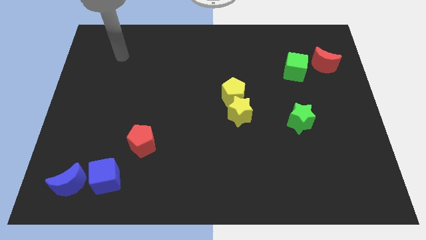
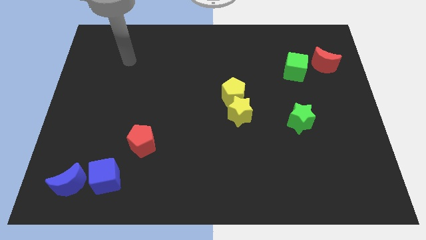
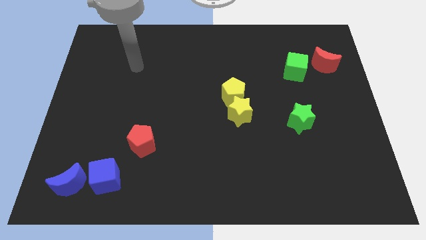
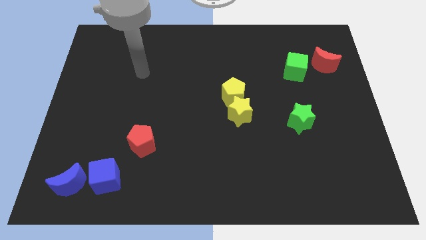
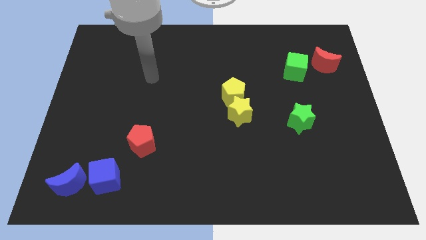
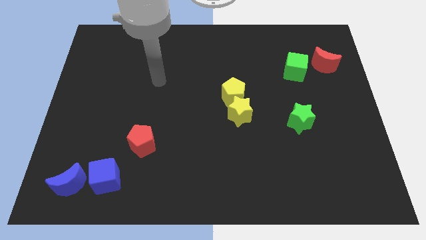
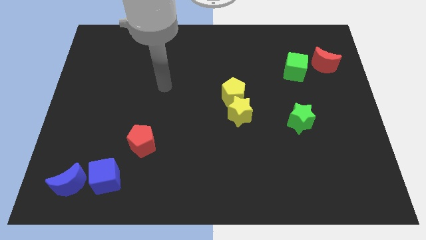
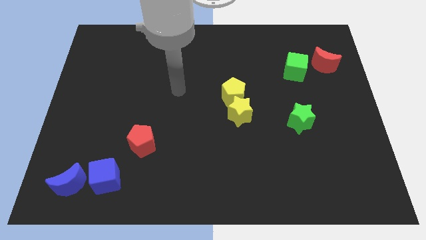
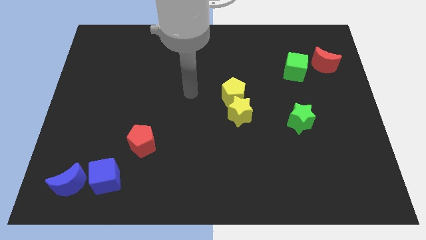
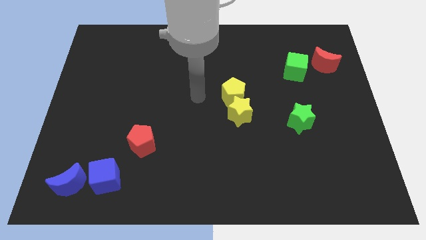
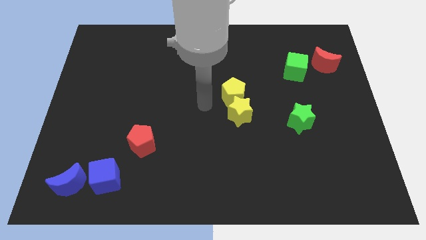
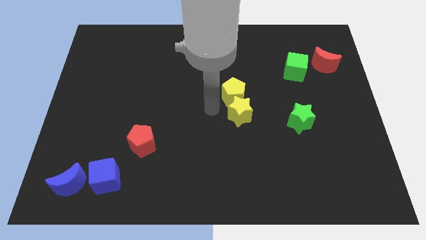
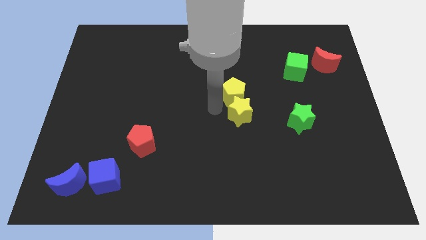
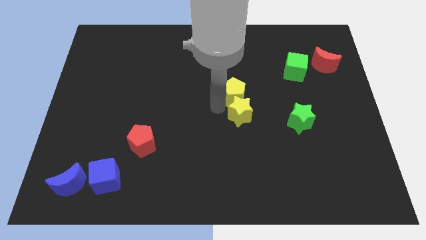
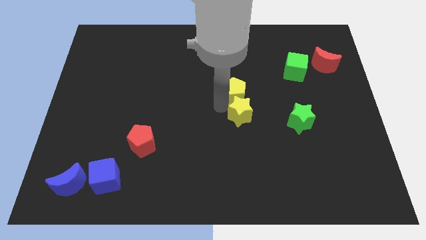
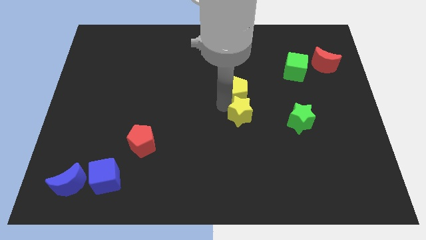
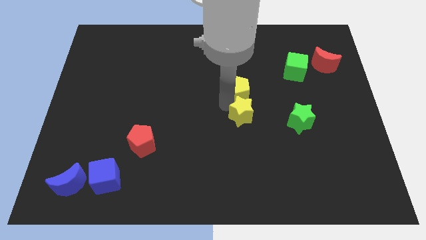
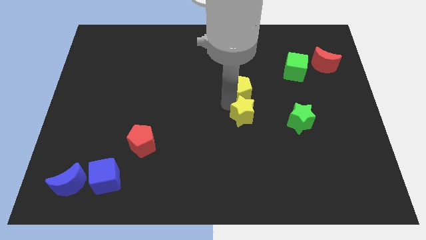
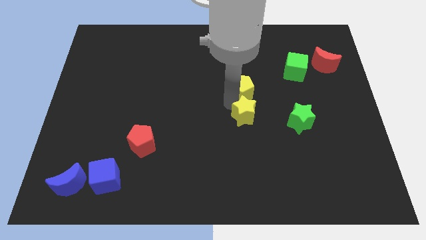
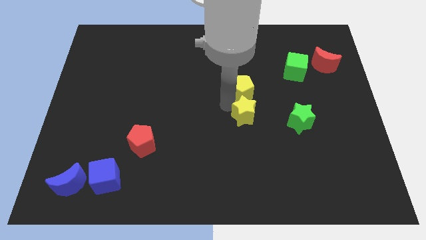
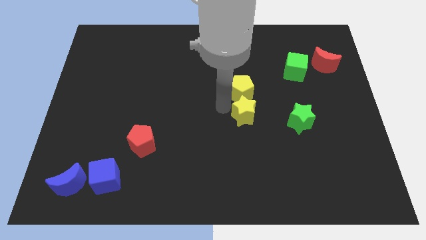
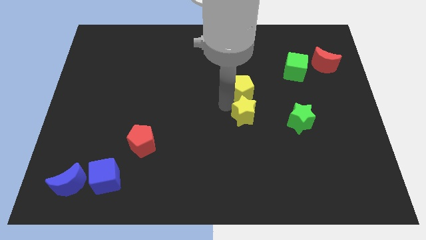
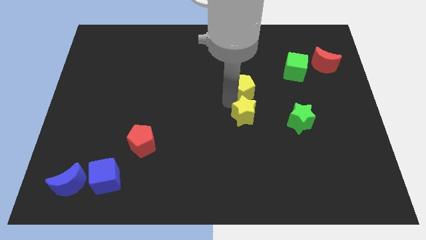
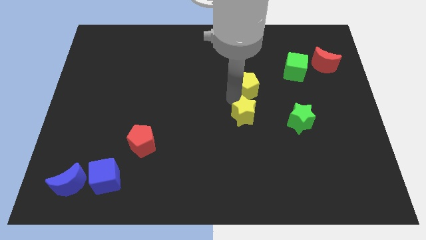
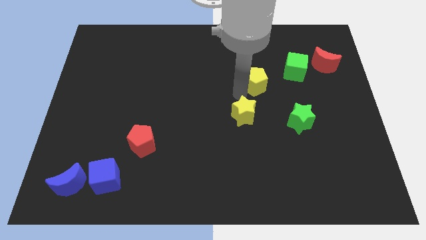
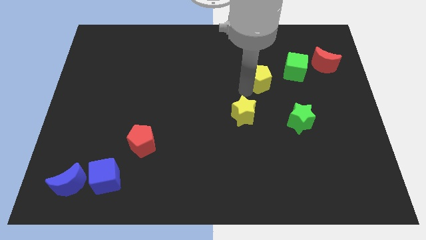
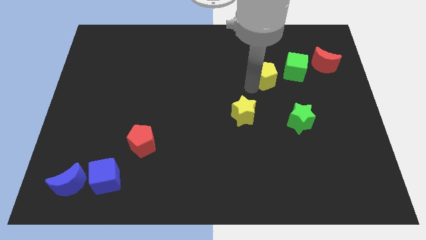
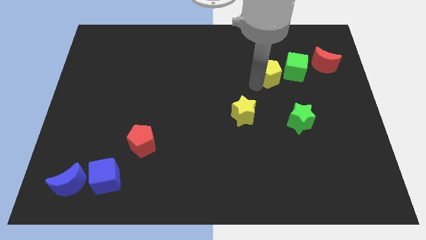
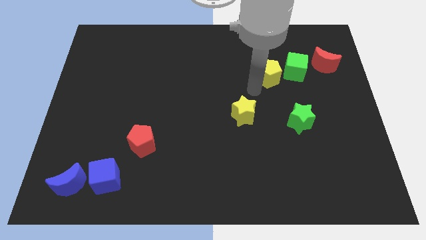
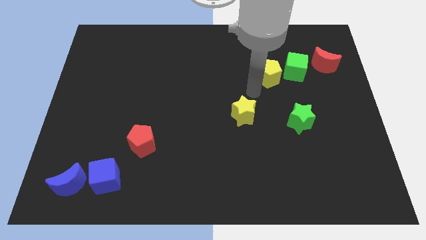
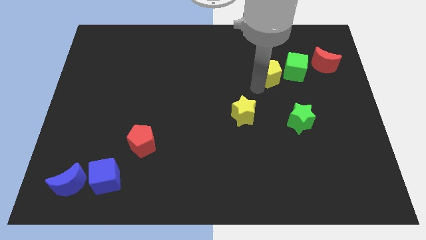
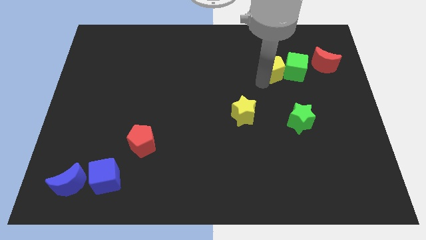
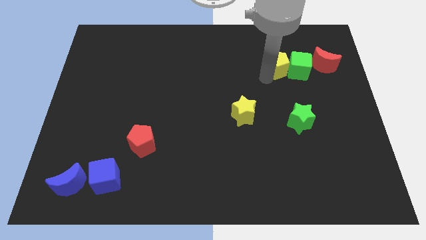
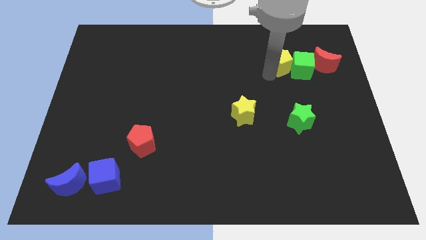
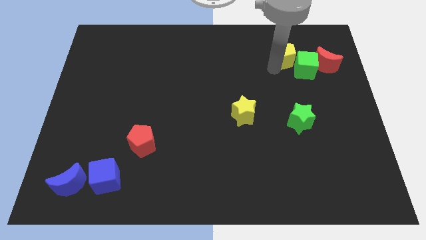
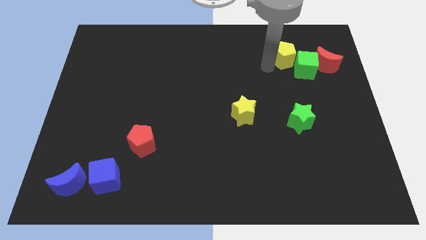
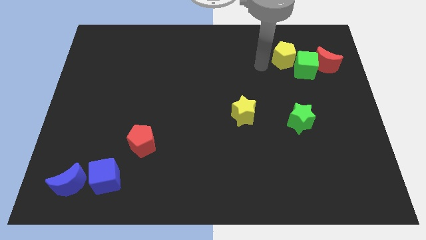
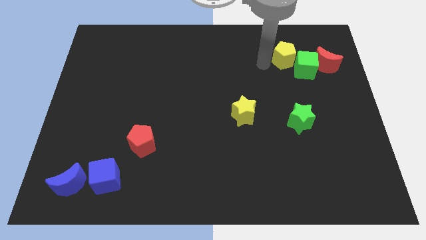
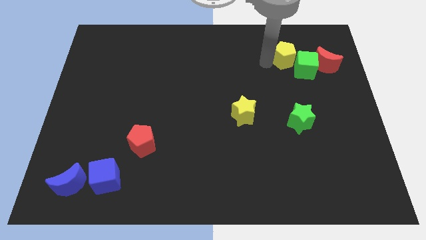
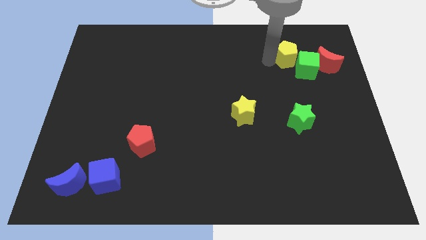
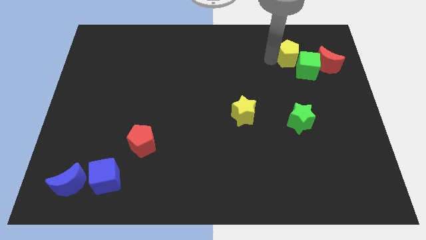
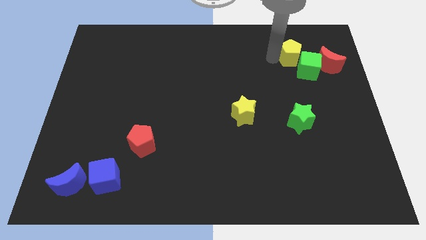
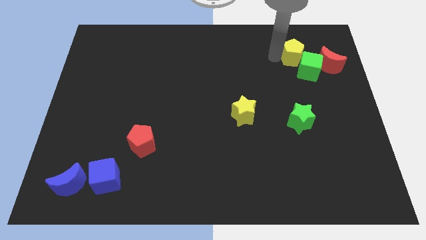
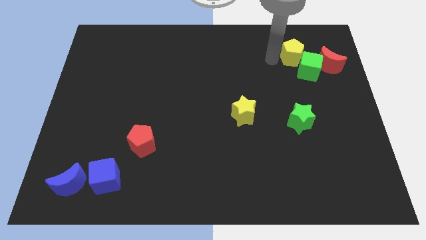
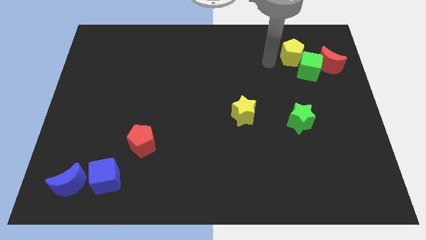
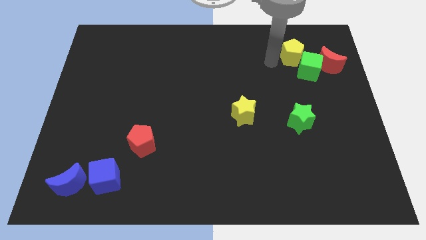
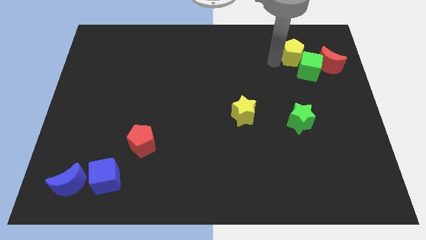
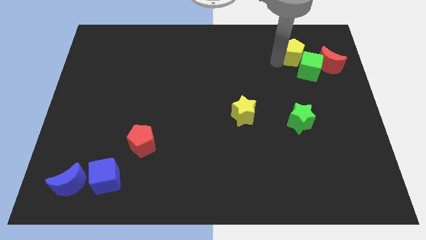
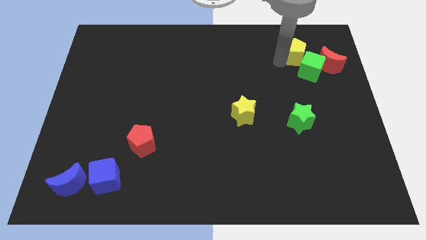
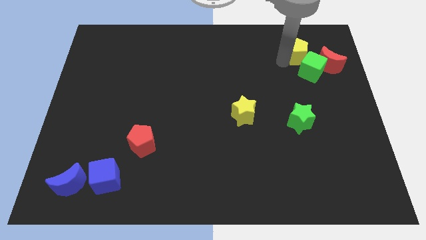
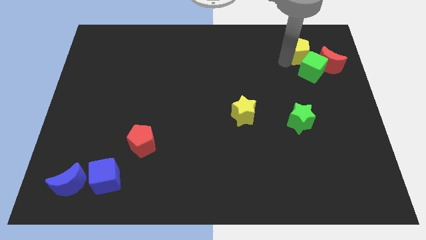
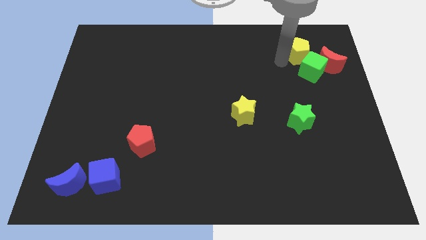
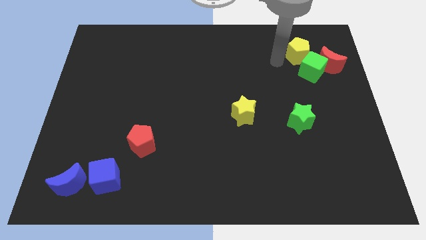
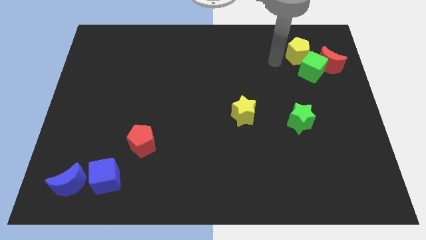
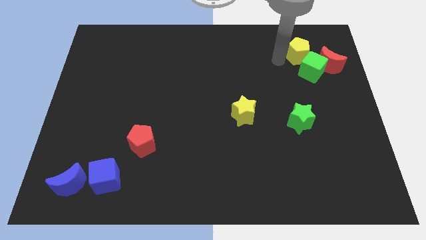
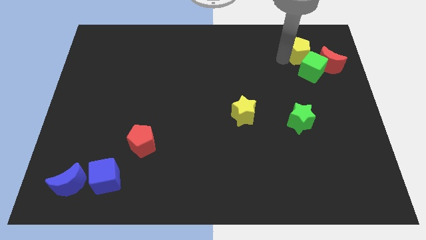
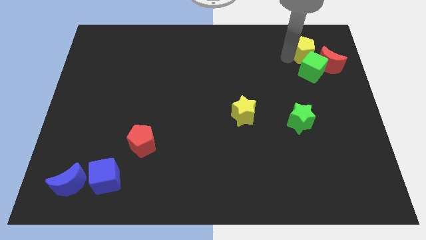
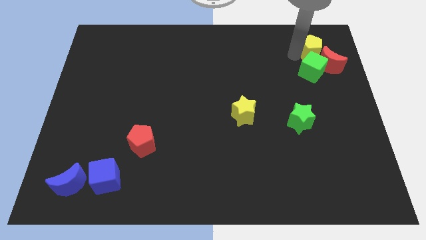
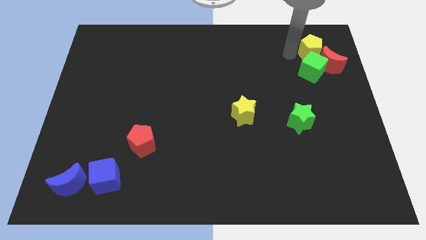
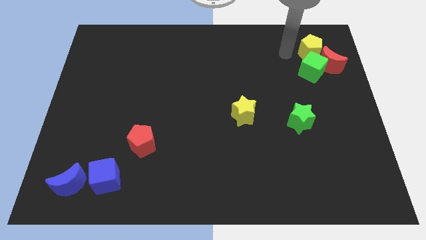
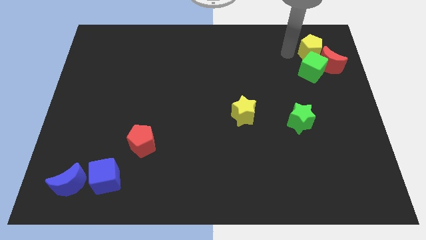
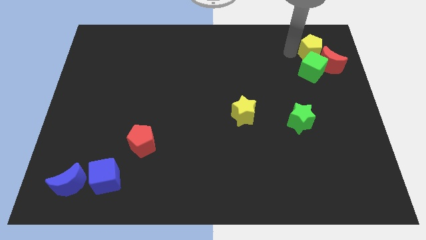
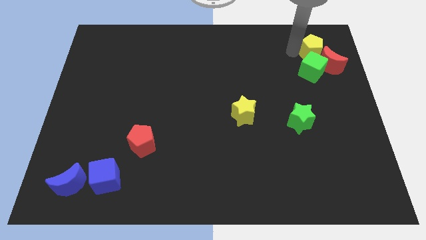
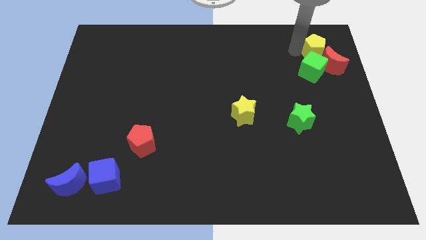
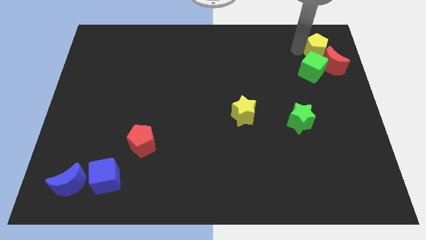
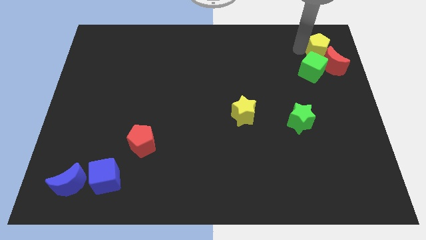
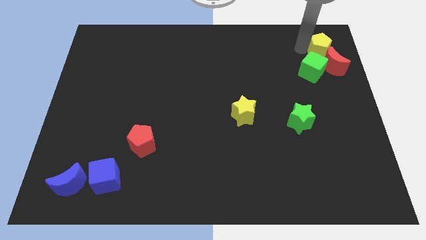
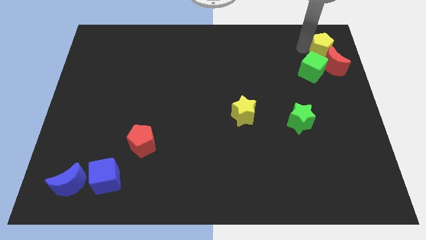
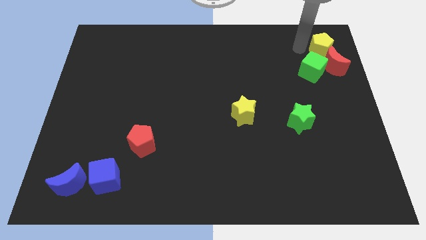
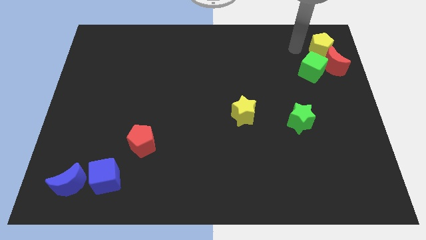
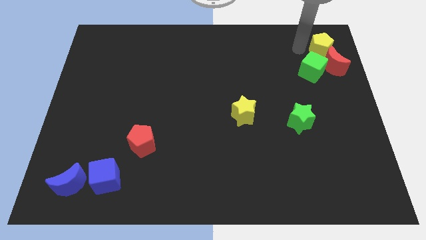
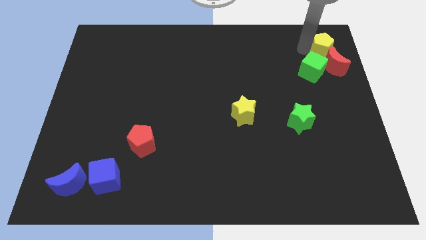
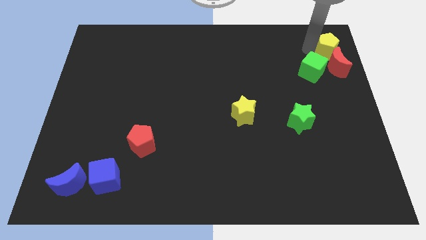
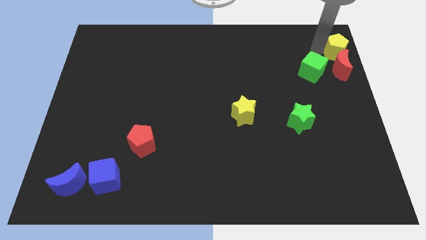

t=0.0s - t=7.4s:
slide the yellow pentagon to the top right
